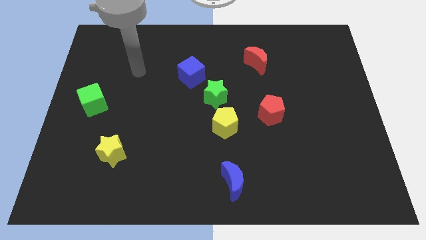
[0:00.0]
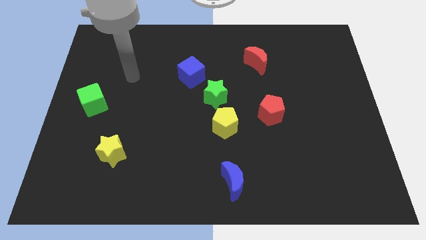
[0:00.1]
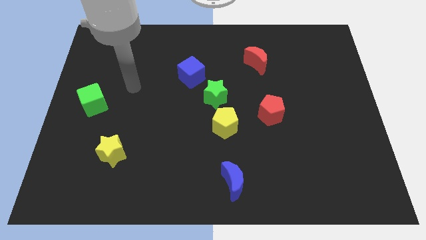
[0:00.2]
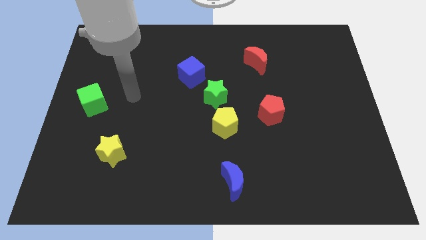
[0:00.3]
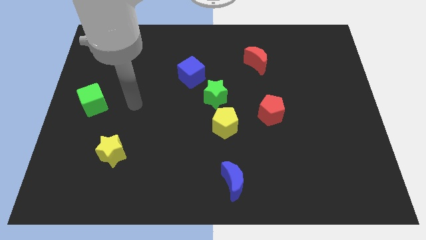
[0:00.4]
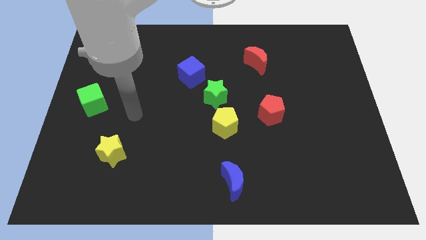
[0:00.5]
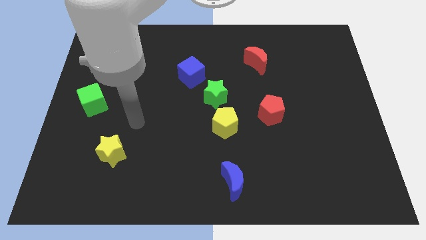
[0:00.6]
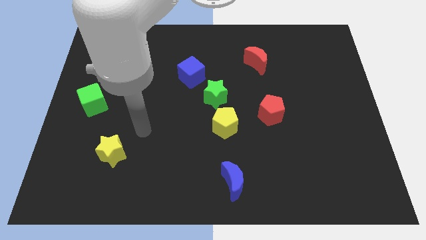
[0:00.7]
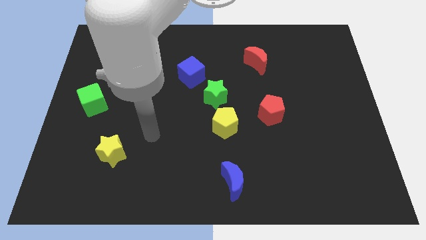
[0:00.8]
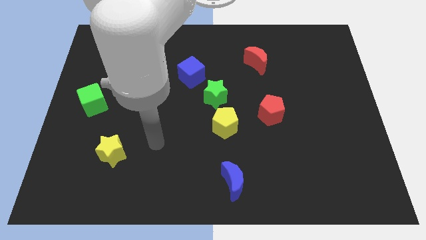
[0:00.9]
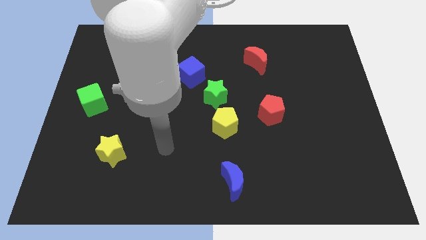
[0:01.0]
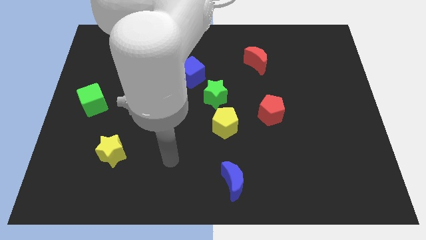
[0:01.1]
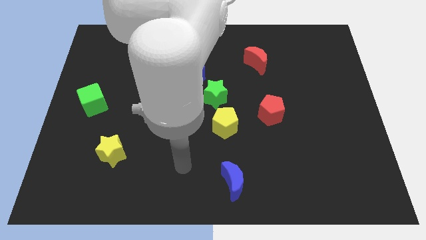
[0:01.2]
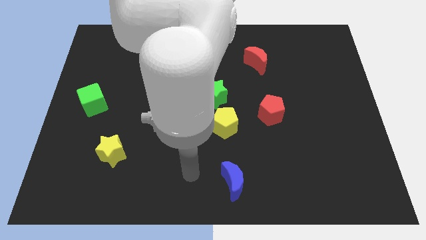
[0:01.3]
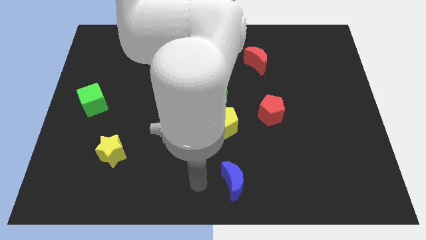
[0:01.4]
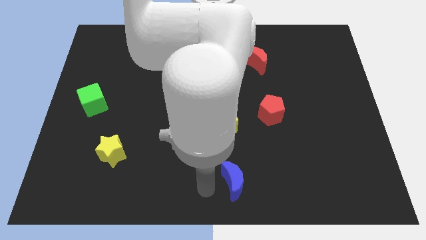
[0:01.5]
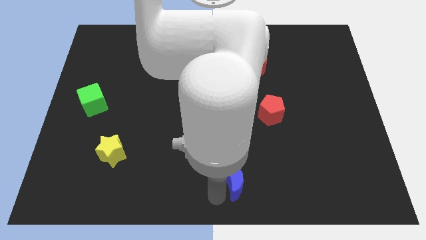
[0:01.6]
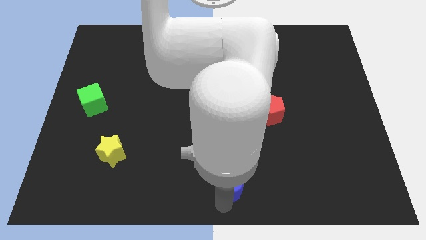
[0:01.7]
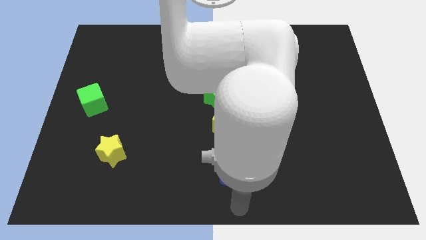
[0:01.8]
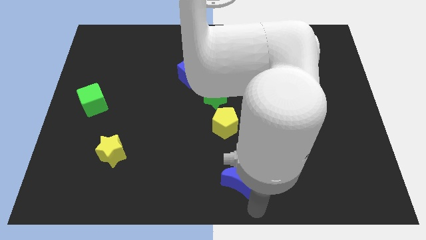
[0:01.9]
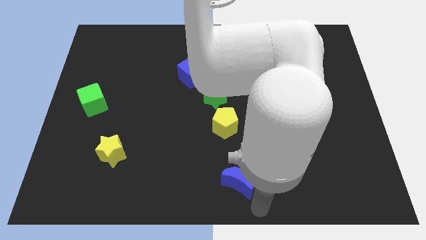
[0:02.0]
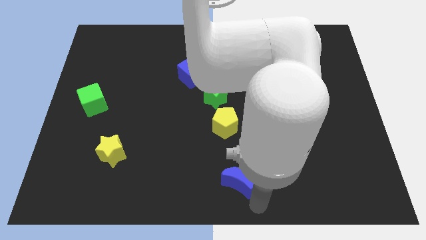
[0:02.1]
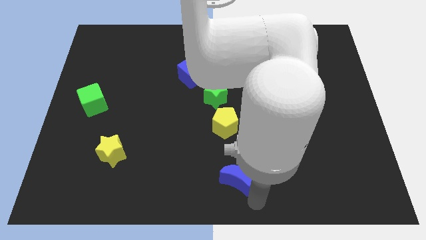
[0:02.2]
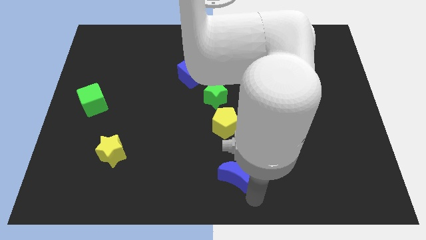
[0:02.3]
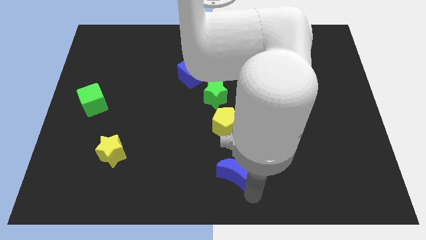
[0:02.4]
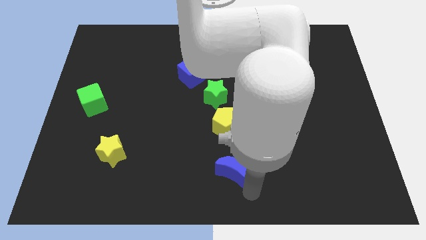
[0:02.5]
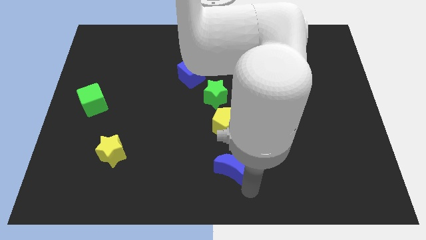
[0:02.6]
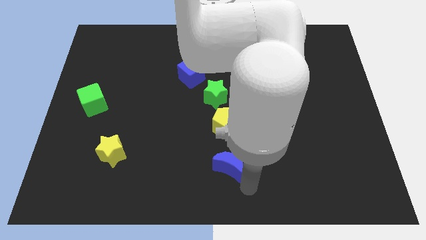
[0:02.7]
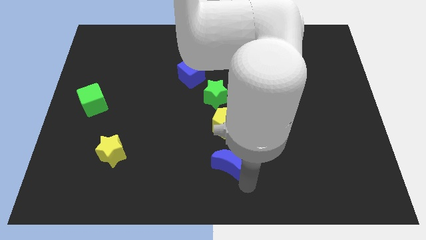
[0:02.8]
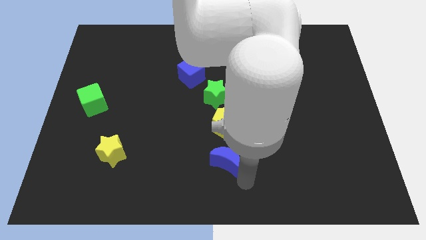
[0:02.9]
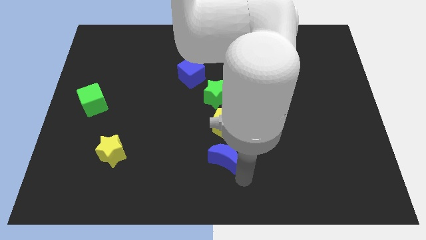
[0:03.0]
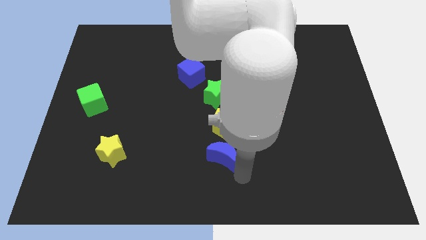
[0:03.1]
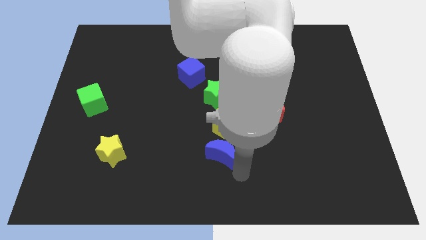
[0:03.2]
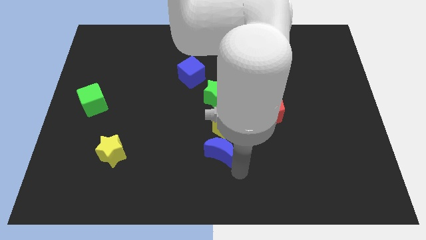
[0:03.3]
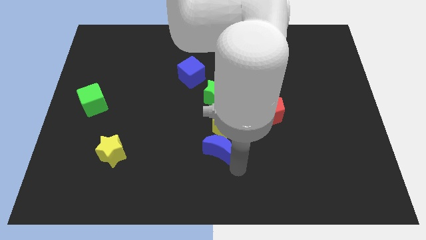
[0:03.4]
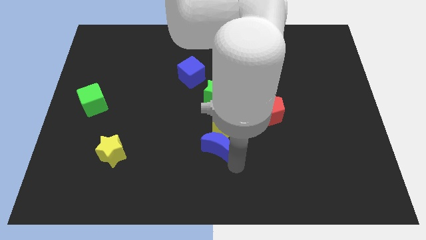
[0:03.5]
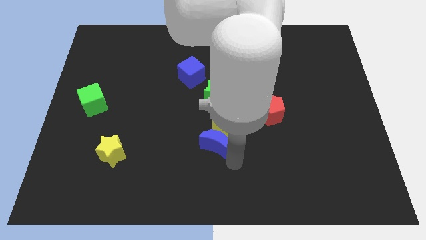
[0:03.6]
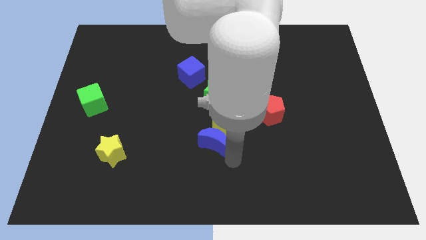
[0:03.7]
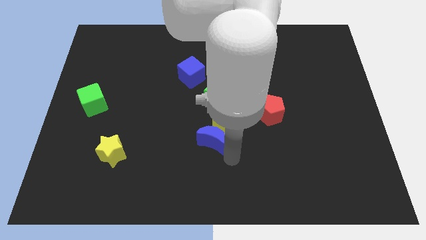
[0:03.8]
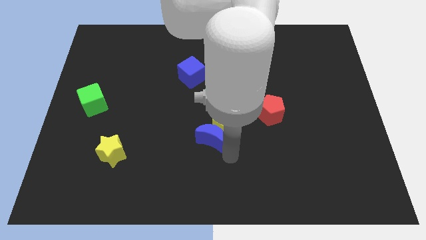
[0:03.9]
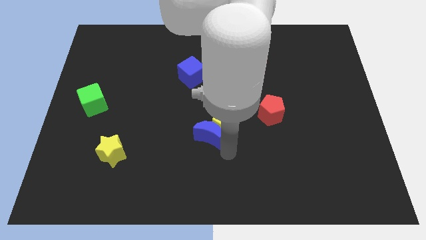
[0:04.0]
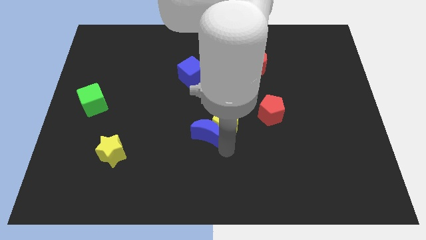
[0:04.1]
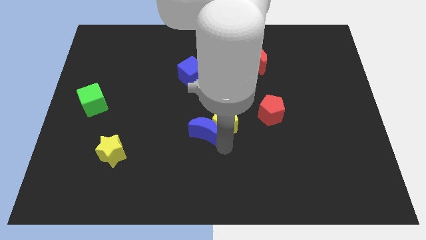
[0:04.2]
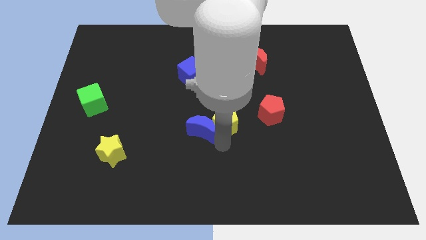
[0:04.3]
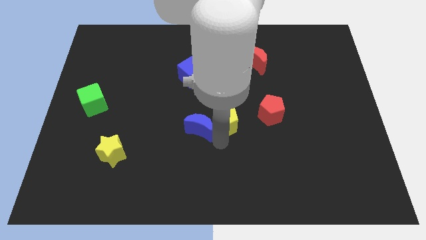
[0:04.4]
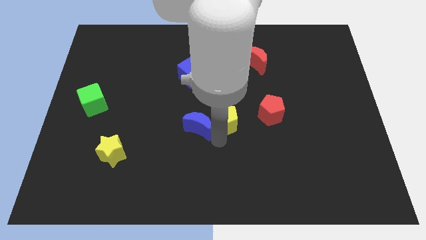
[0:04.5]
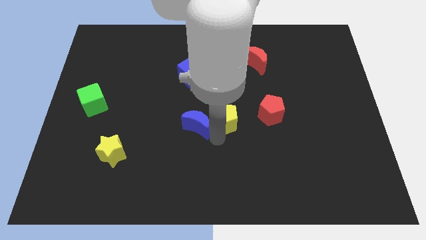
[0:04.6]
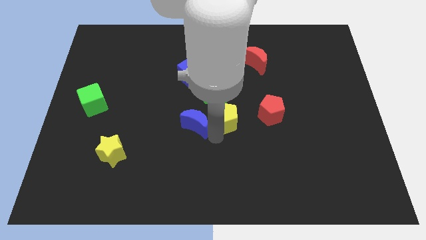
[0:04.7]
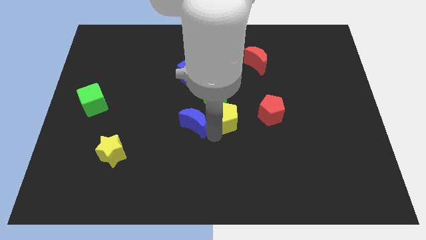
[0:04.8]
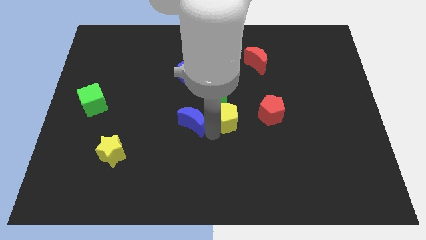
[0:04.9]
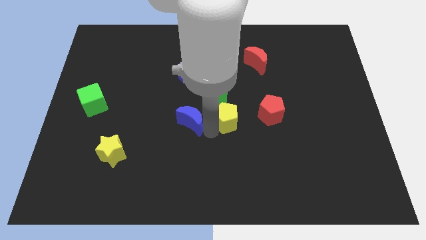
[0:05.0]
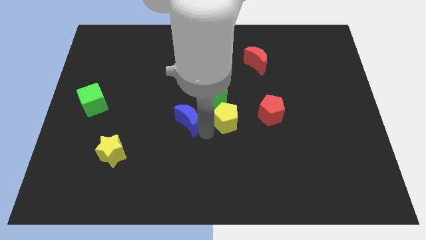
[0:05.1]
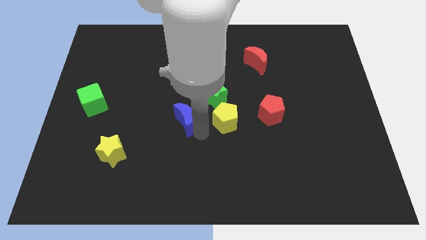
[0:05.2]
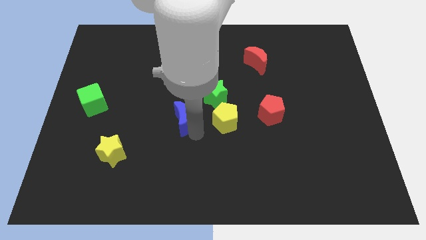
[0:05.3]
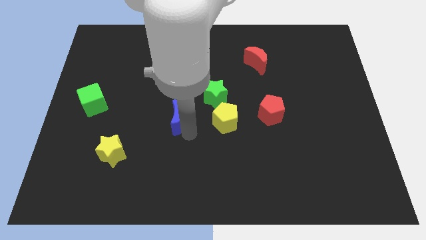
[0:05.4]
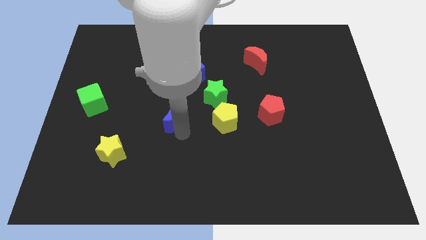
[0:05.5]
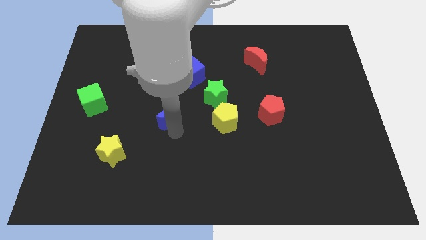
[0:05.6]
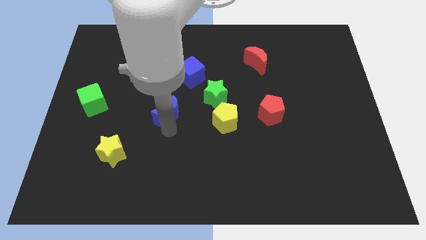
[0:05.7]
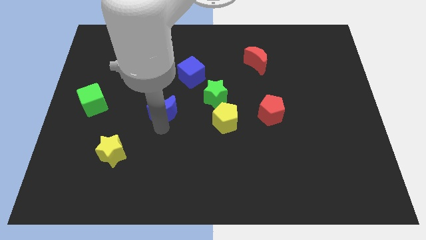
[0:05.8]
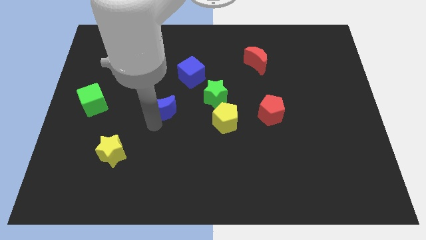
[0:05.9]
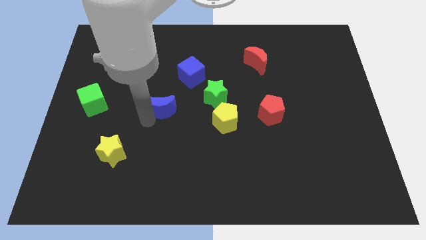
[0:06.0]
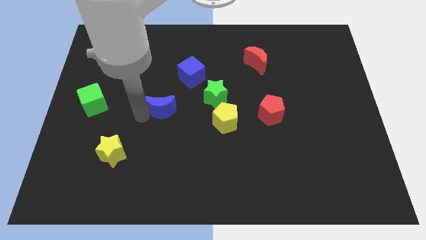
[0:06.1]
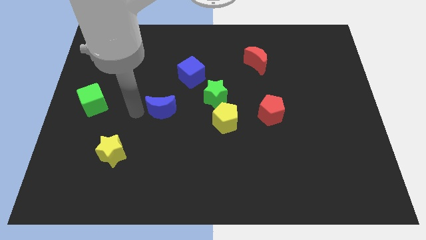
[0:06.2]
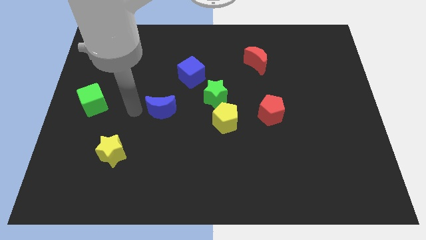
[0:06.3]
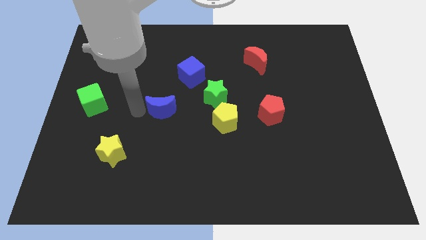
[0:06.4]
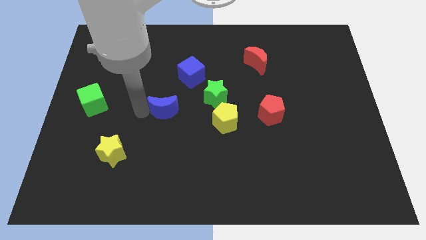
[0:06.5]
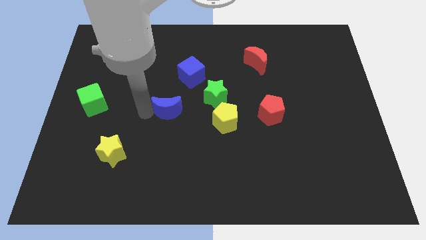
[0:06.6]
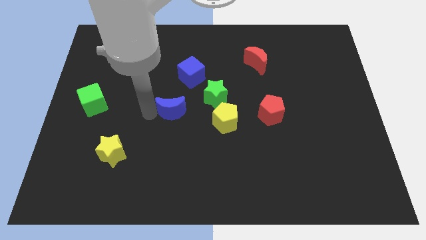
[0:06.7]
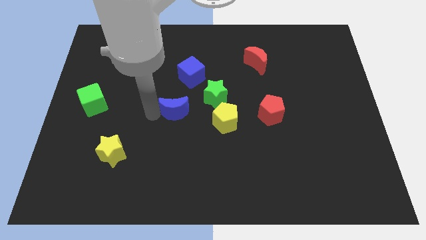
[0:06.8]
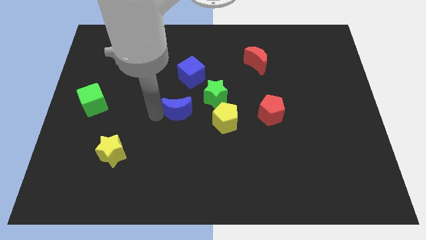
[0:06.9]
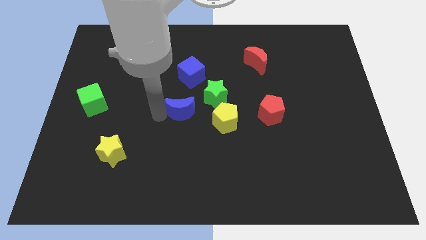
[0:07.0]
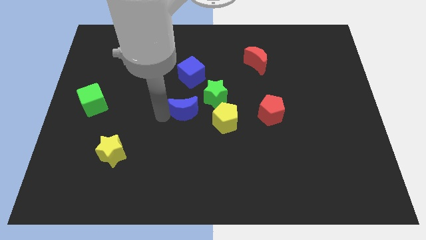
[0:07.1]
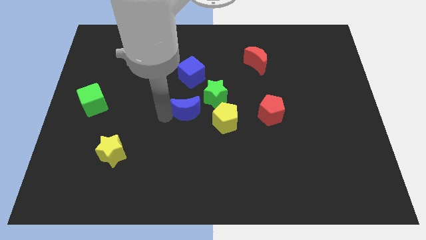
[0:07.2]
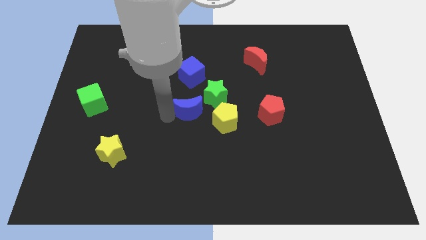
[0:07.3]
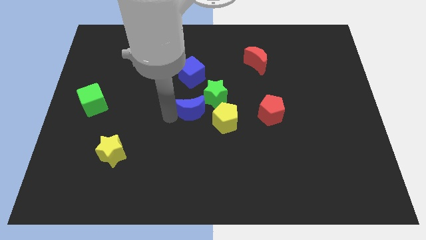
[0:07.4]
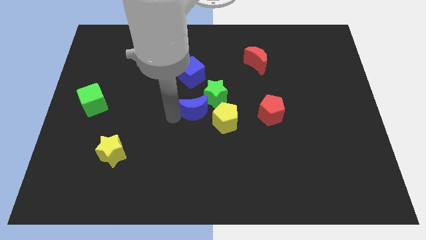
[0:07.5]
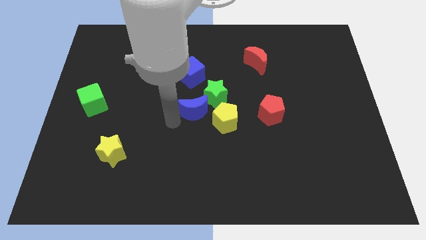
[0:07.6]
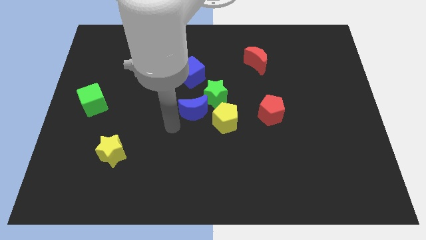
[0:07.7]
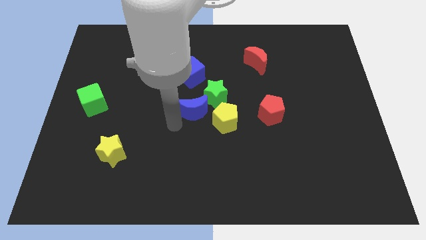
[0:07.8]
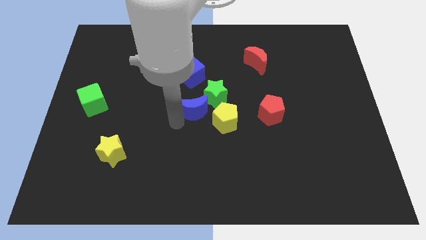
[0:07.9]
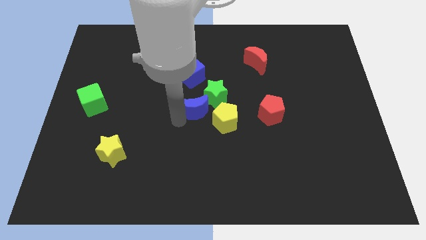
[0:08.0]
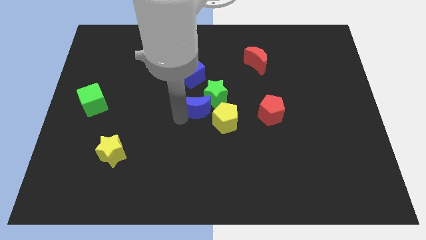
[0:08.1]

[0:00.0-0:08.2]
move the blue moon to the green star
